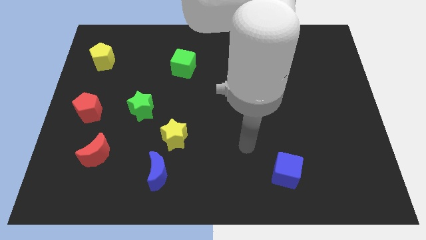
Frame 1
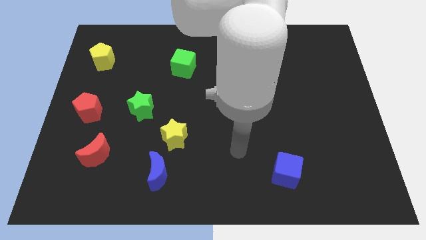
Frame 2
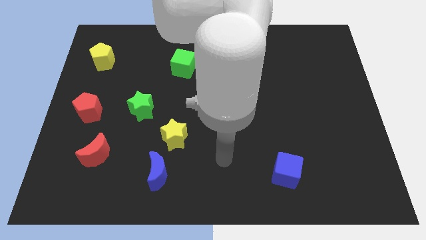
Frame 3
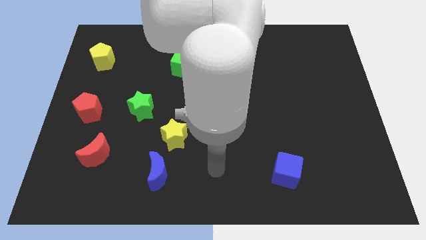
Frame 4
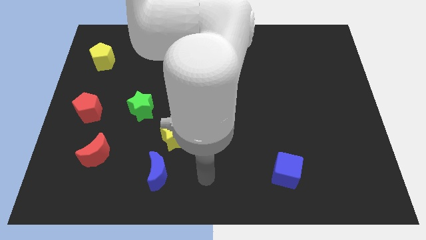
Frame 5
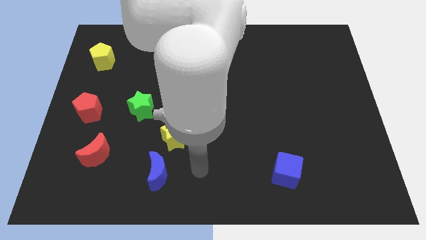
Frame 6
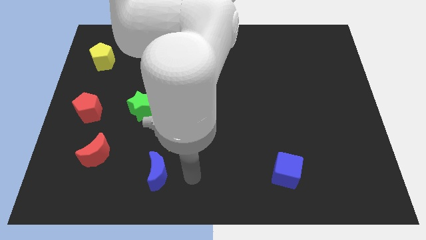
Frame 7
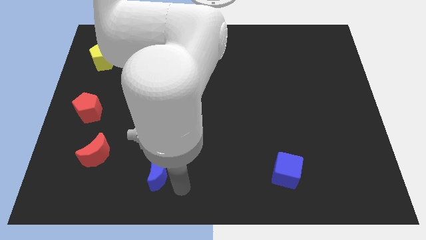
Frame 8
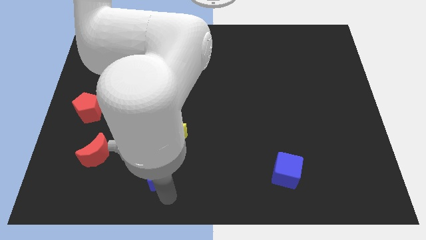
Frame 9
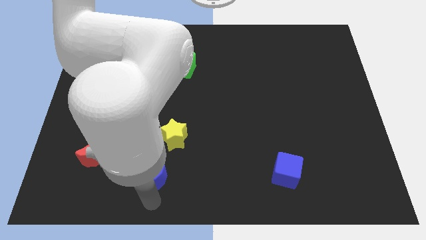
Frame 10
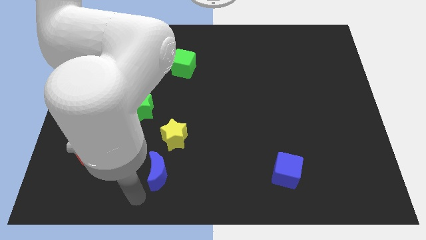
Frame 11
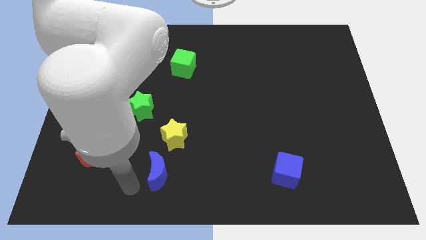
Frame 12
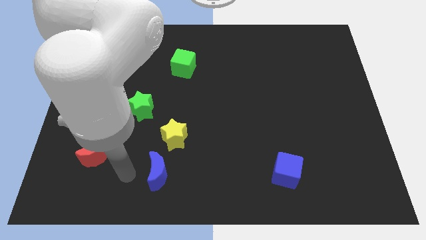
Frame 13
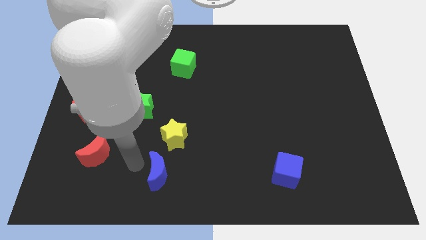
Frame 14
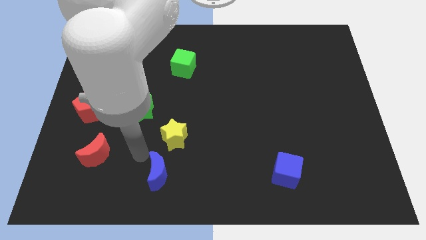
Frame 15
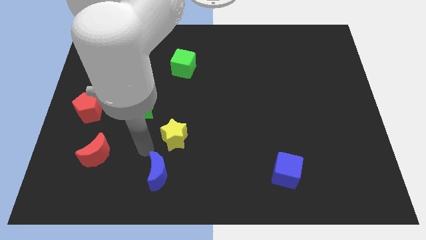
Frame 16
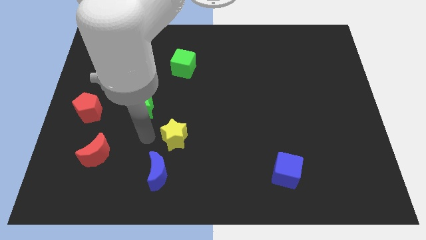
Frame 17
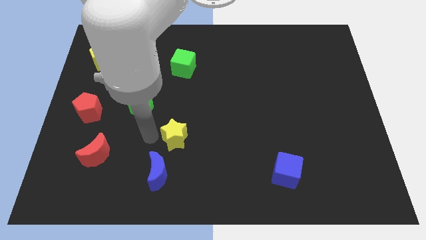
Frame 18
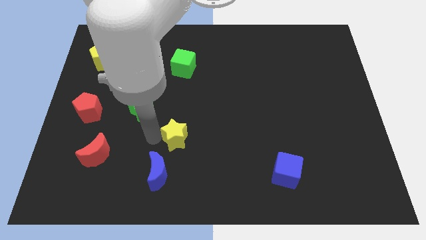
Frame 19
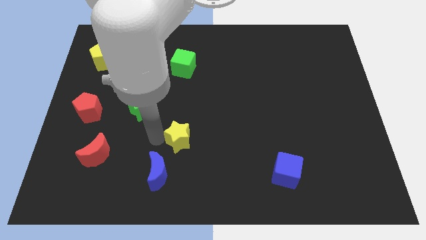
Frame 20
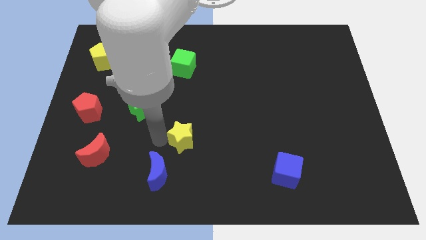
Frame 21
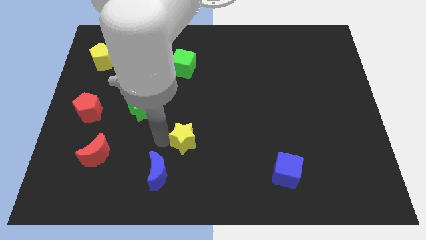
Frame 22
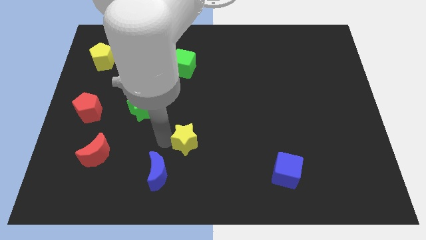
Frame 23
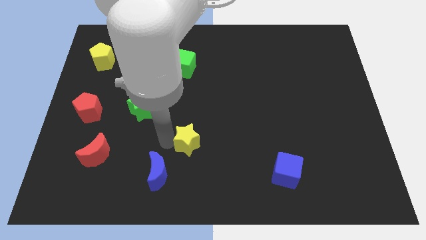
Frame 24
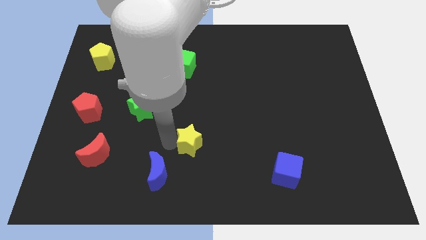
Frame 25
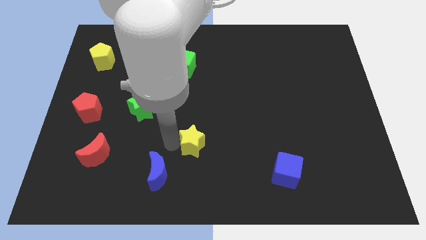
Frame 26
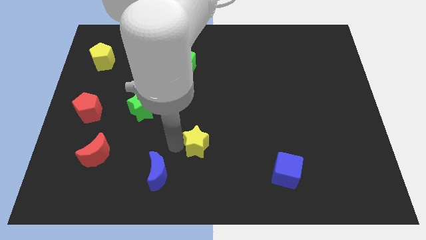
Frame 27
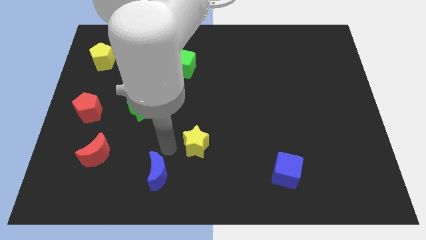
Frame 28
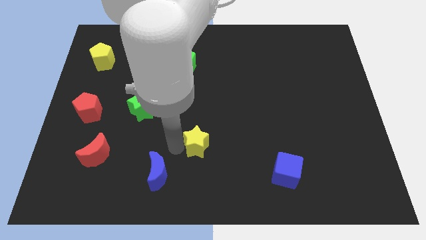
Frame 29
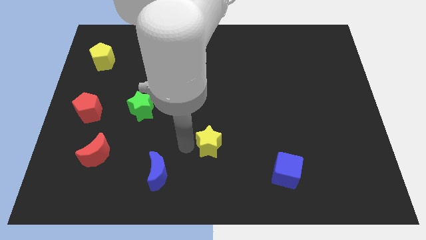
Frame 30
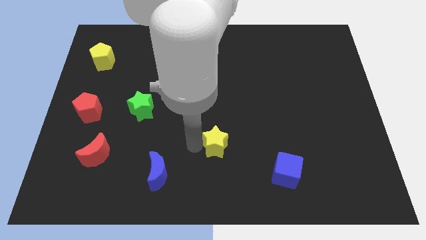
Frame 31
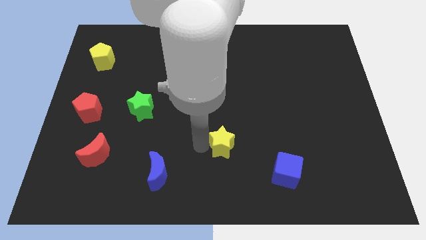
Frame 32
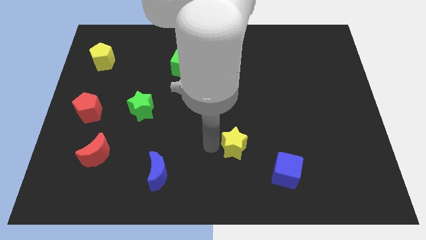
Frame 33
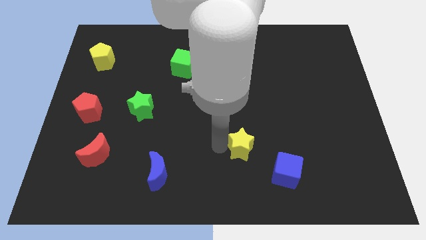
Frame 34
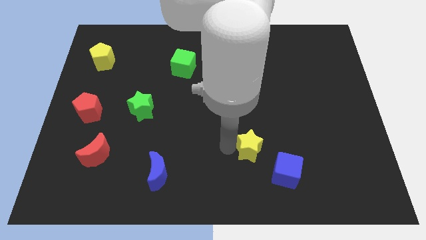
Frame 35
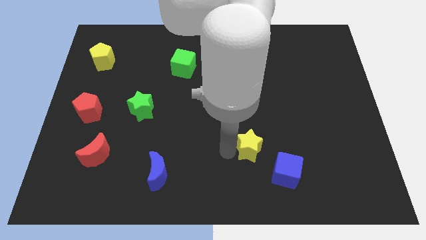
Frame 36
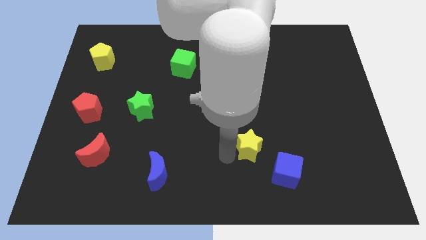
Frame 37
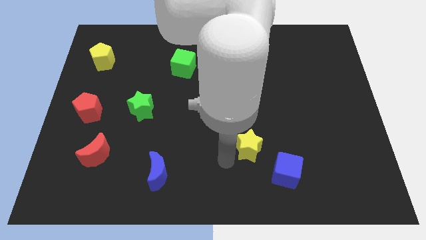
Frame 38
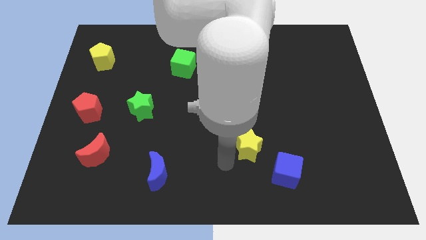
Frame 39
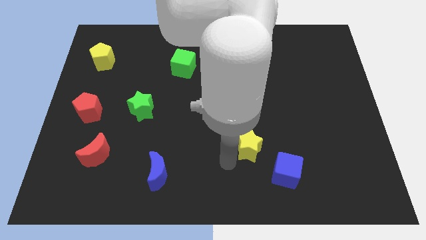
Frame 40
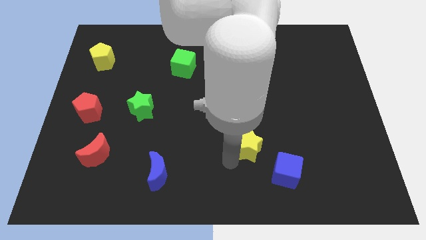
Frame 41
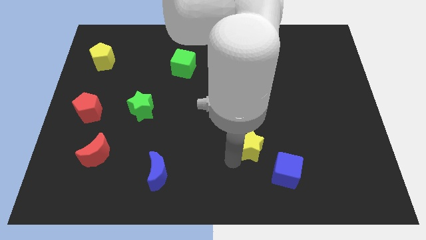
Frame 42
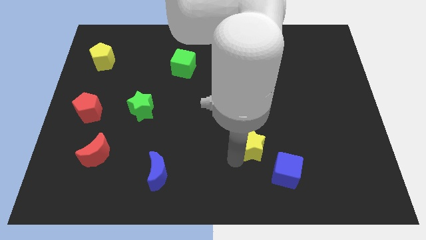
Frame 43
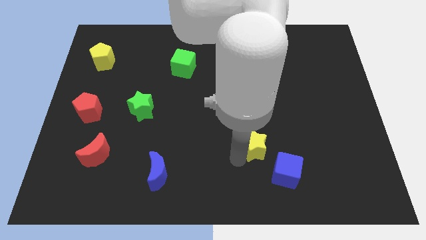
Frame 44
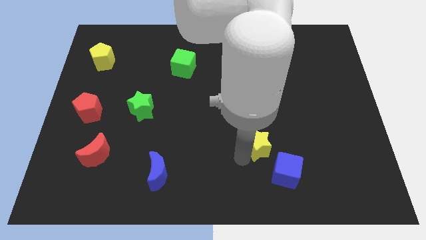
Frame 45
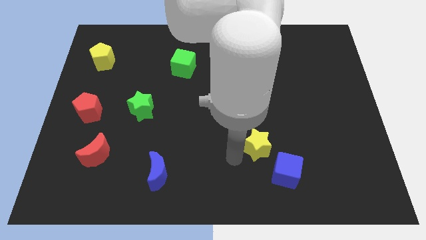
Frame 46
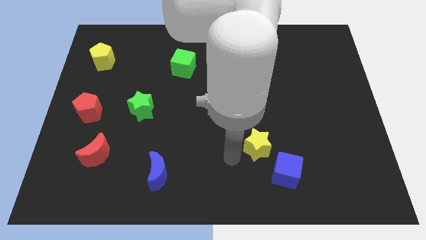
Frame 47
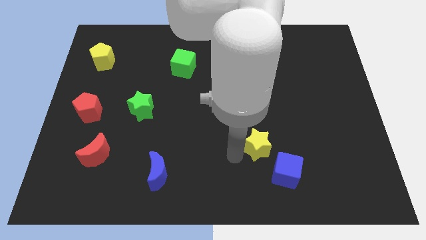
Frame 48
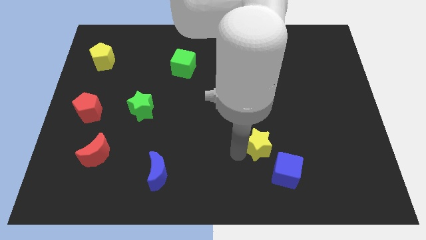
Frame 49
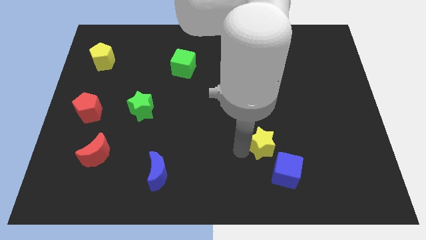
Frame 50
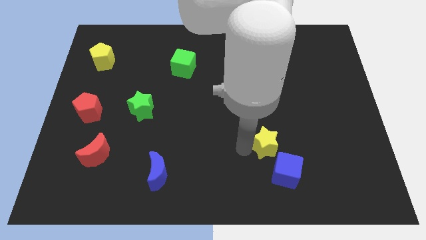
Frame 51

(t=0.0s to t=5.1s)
slide the yellow star right

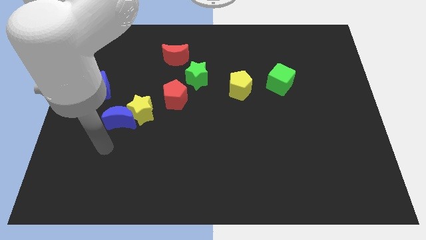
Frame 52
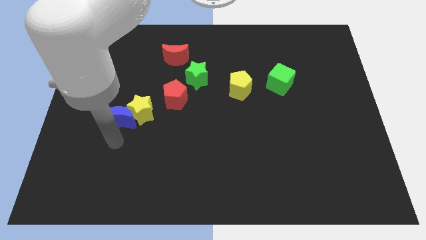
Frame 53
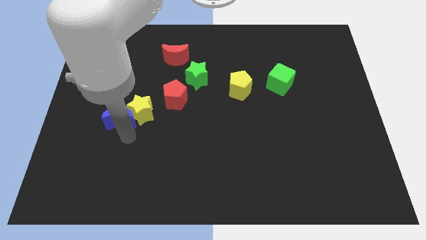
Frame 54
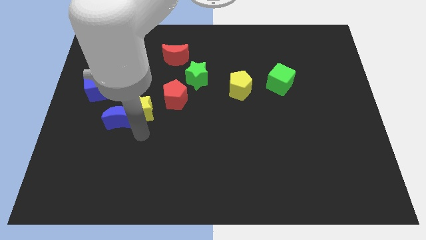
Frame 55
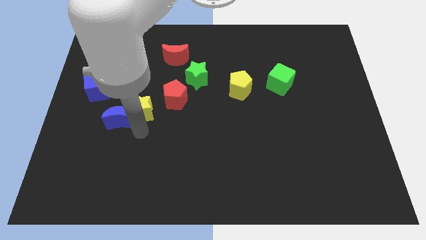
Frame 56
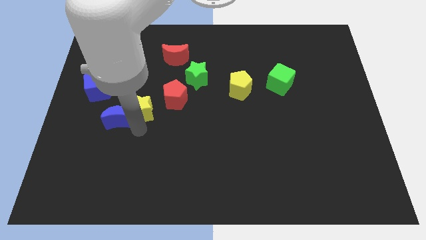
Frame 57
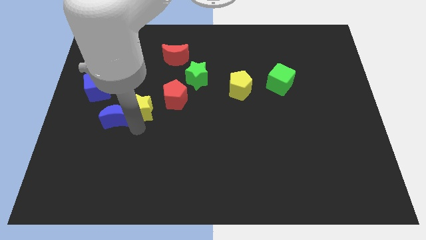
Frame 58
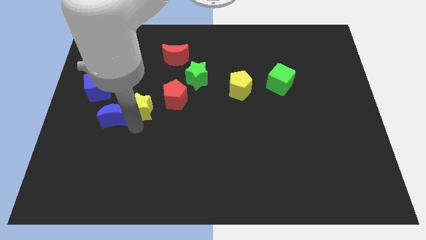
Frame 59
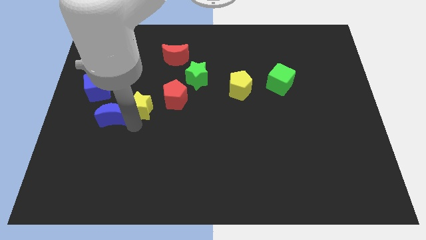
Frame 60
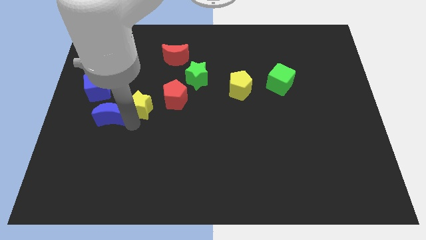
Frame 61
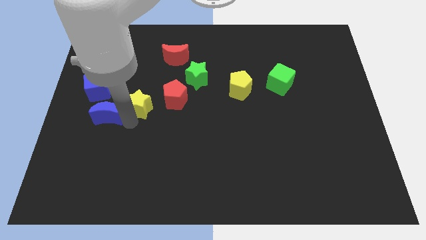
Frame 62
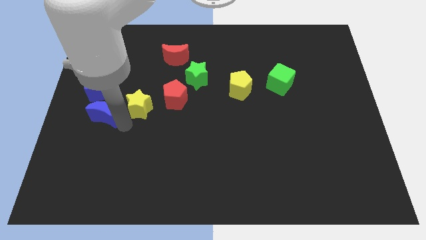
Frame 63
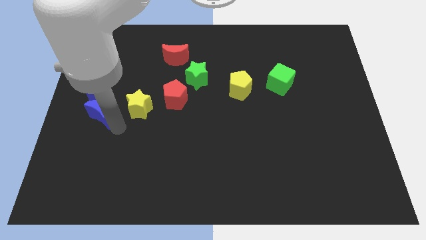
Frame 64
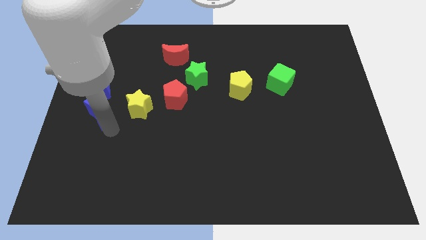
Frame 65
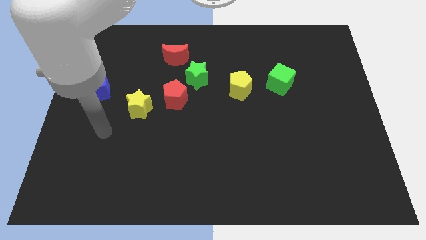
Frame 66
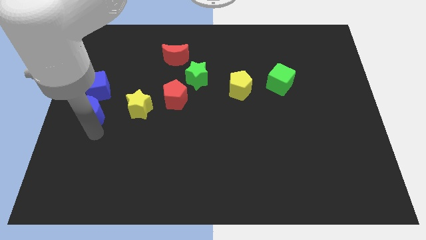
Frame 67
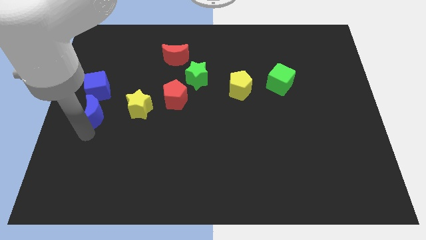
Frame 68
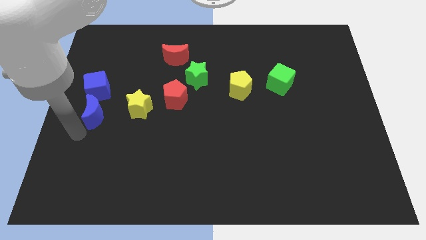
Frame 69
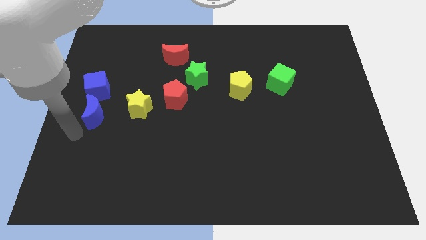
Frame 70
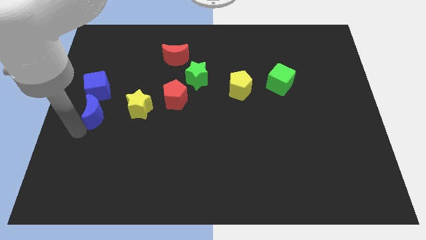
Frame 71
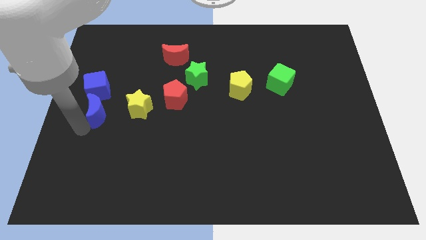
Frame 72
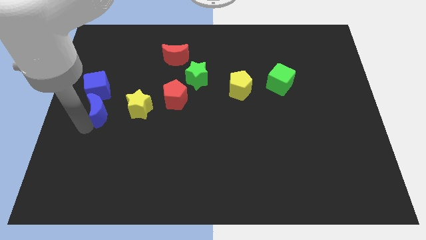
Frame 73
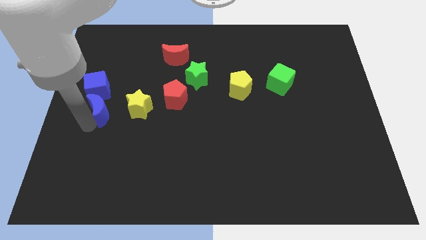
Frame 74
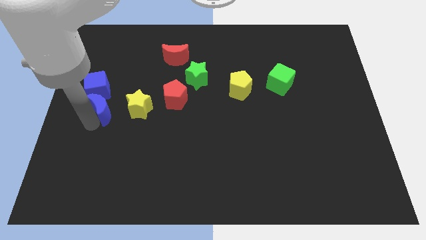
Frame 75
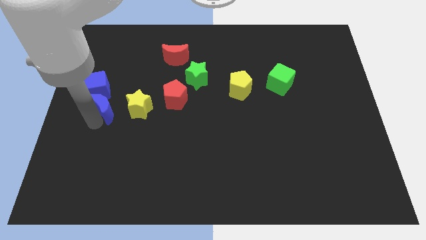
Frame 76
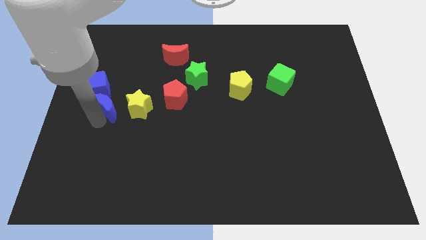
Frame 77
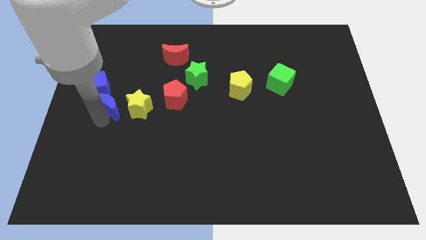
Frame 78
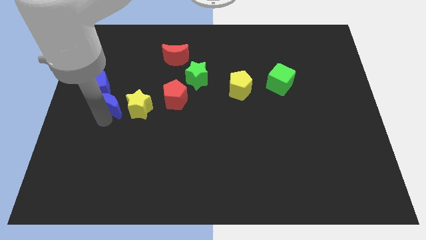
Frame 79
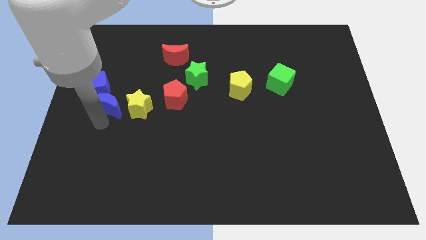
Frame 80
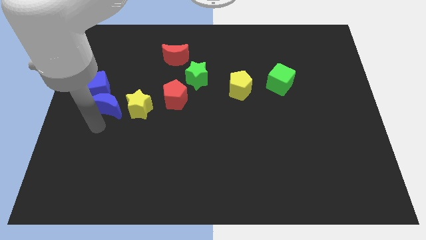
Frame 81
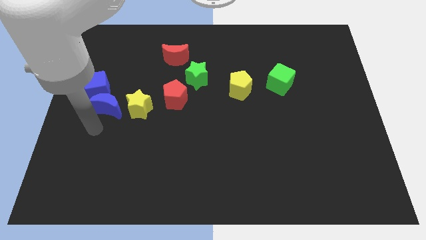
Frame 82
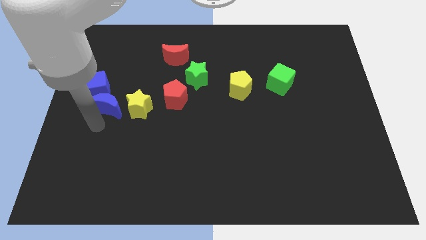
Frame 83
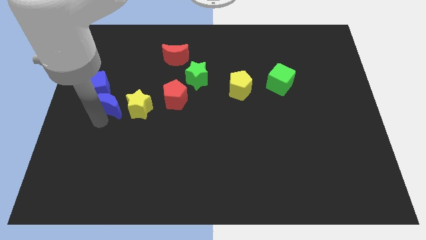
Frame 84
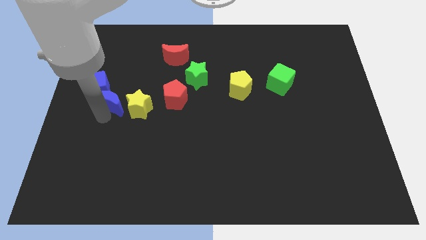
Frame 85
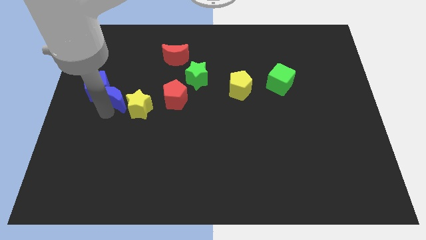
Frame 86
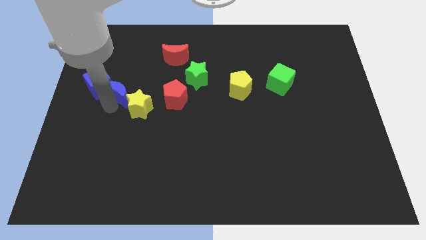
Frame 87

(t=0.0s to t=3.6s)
slide the blue moon up slightly
